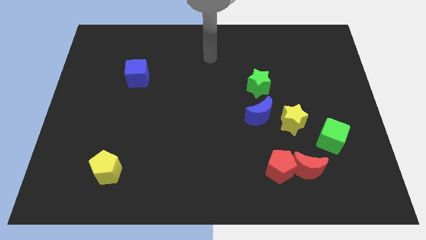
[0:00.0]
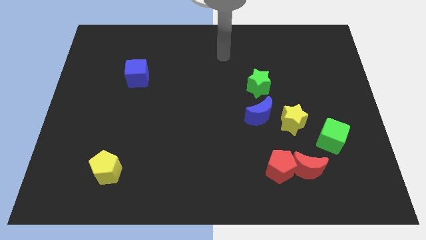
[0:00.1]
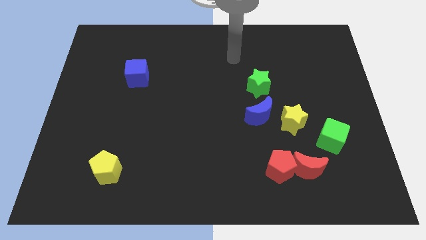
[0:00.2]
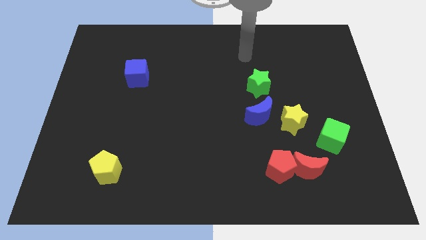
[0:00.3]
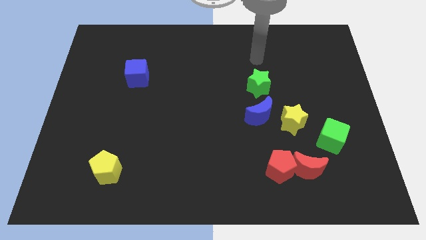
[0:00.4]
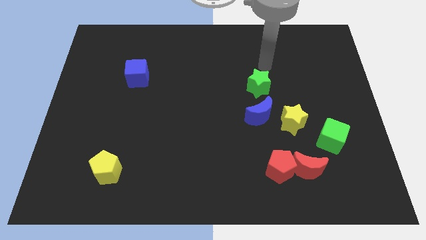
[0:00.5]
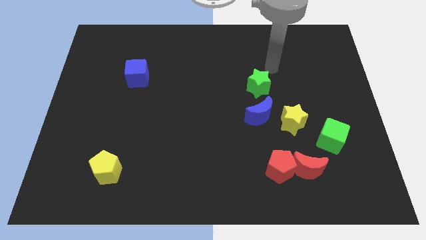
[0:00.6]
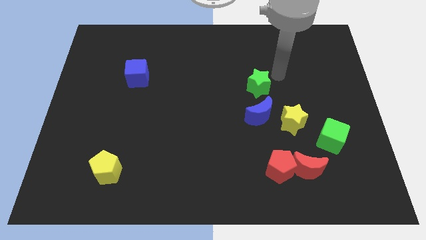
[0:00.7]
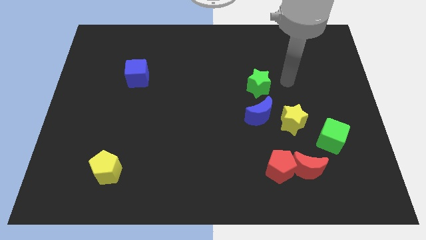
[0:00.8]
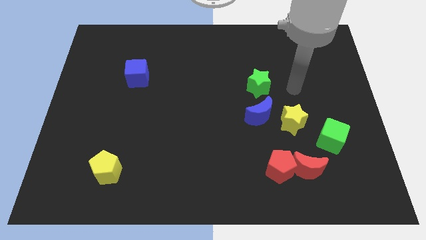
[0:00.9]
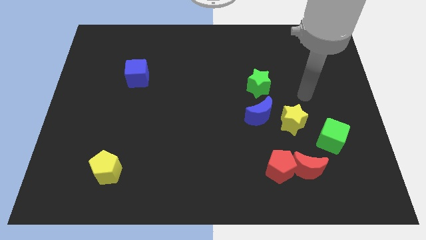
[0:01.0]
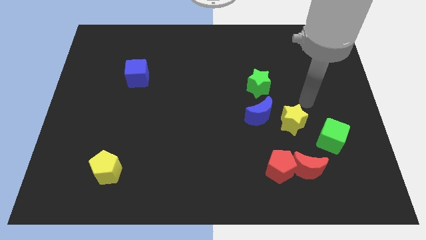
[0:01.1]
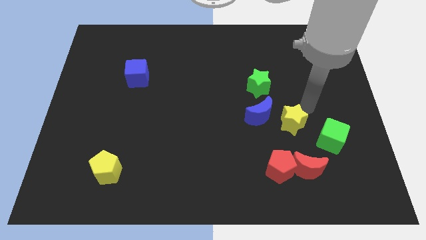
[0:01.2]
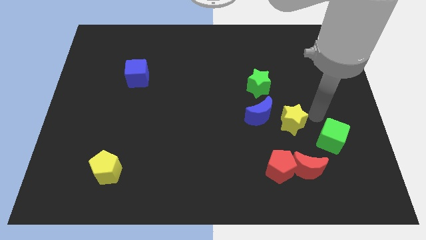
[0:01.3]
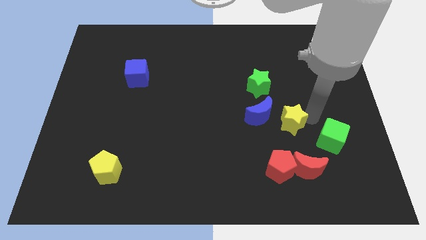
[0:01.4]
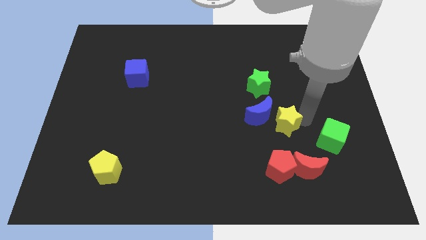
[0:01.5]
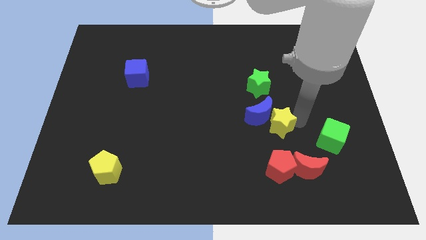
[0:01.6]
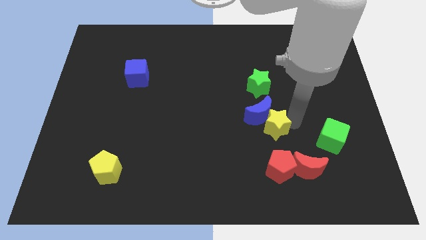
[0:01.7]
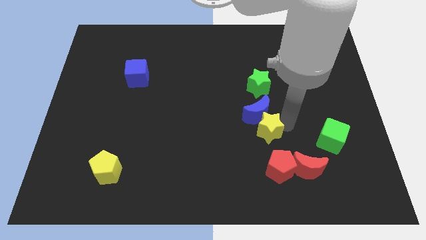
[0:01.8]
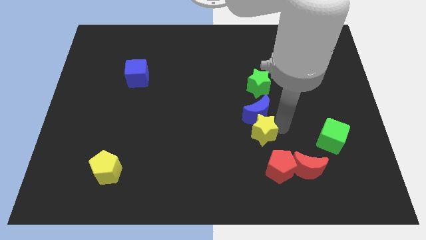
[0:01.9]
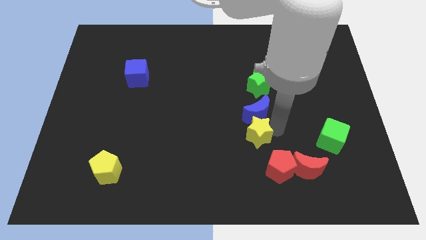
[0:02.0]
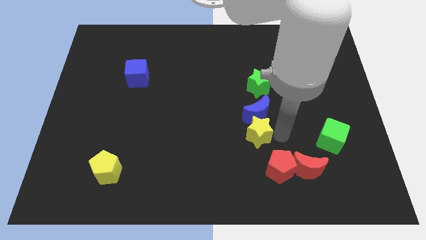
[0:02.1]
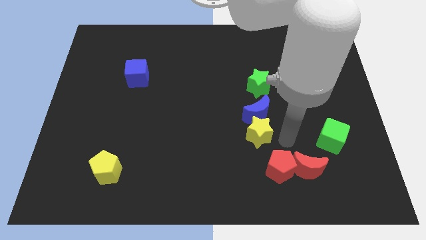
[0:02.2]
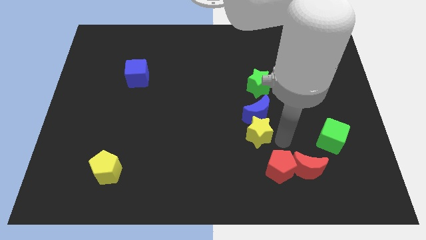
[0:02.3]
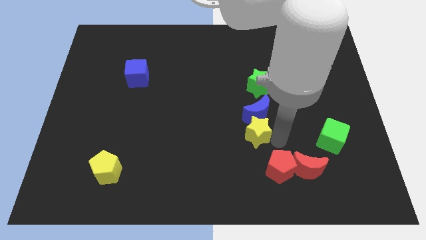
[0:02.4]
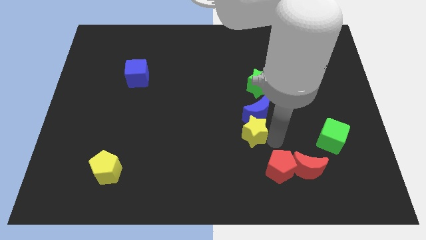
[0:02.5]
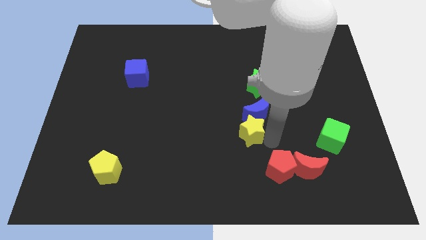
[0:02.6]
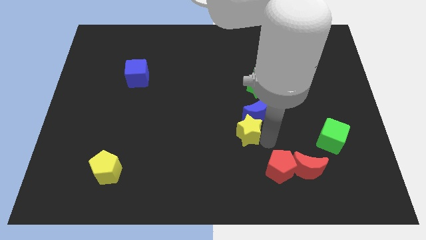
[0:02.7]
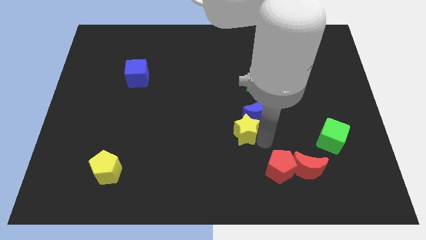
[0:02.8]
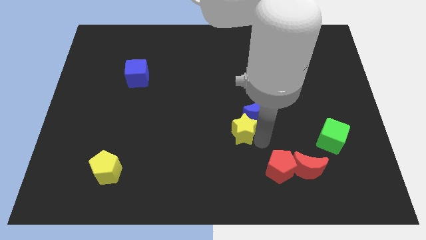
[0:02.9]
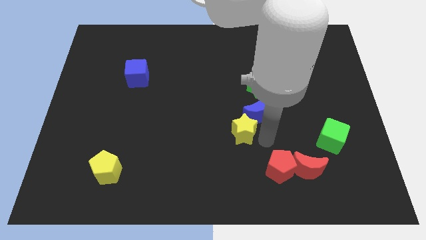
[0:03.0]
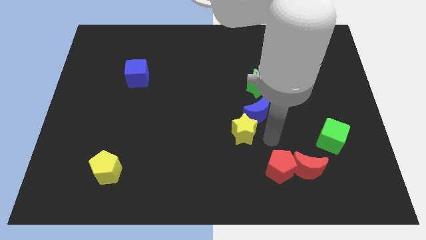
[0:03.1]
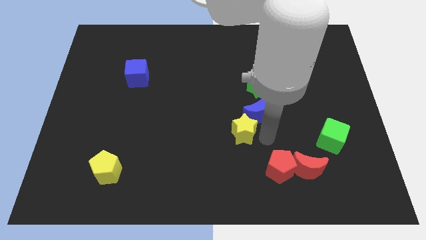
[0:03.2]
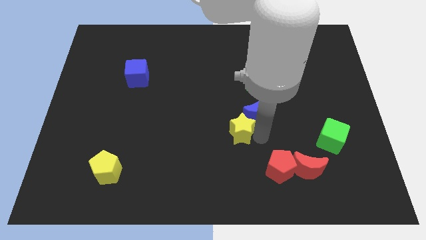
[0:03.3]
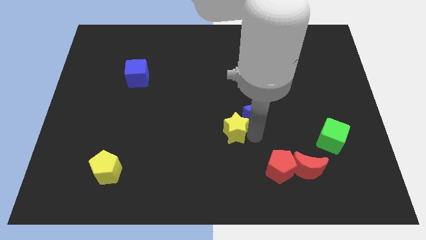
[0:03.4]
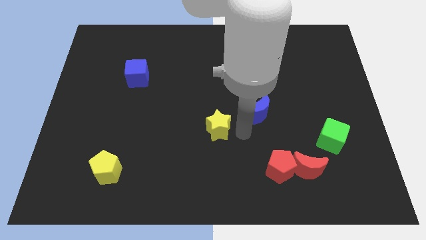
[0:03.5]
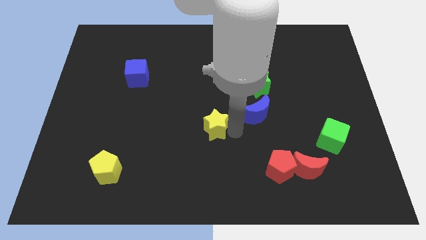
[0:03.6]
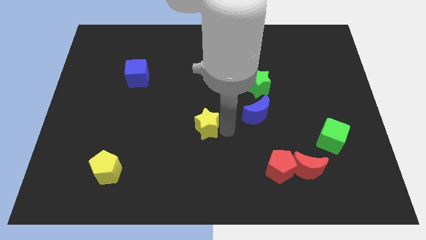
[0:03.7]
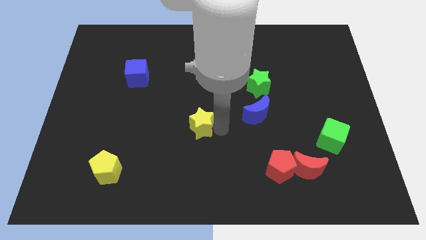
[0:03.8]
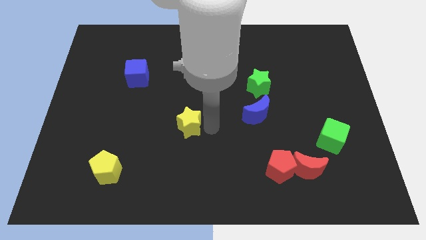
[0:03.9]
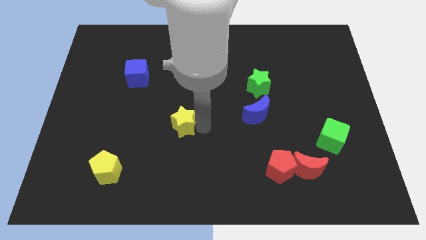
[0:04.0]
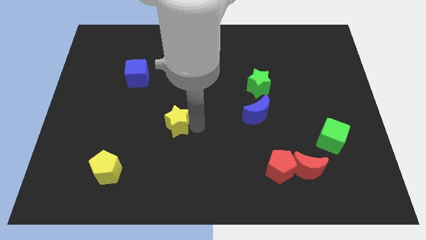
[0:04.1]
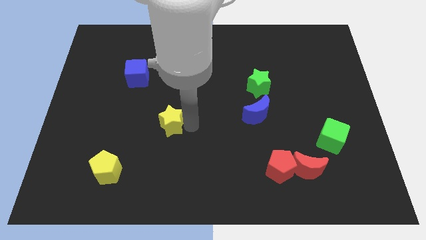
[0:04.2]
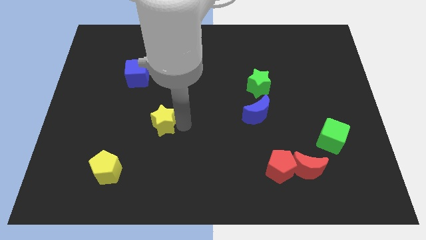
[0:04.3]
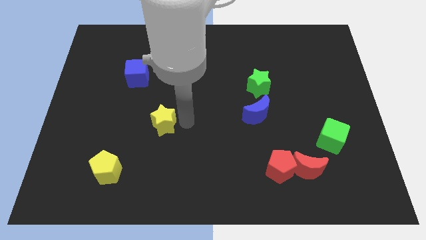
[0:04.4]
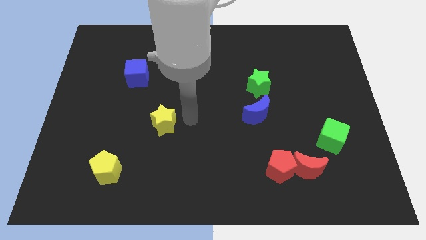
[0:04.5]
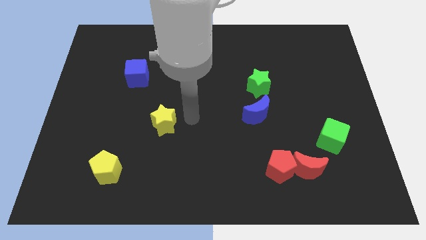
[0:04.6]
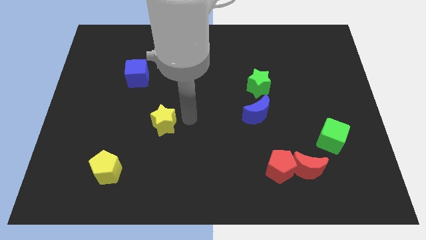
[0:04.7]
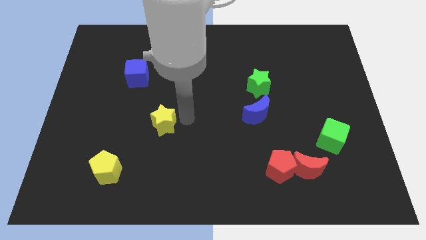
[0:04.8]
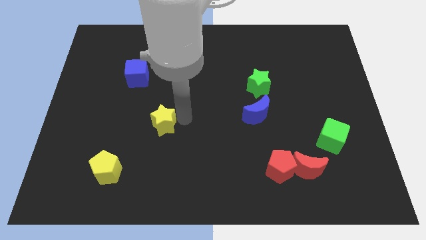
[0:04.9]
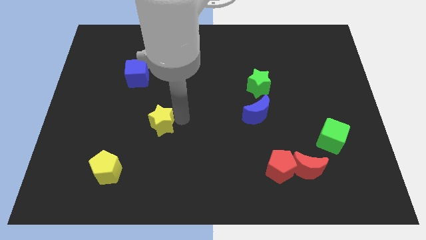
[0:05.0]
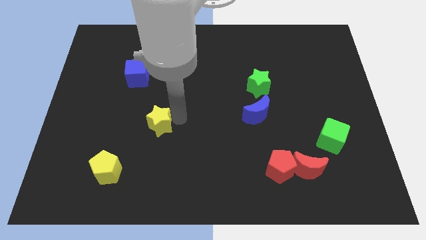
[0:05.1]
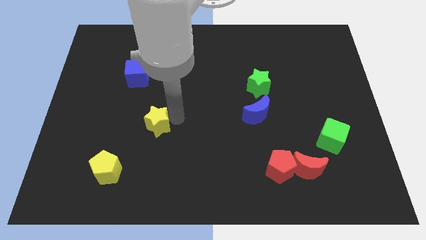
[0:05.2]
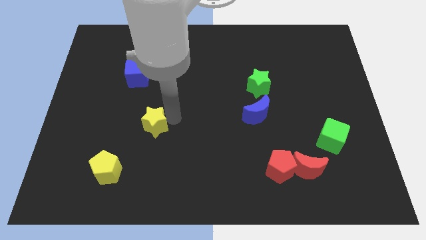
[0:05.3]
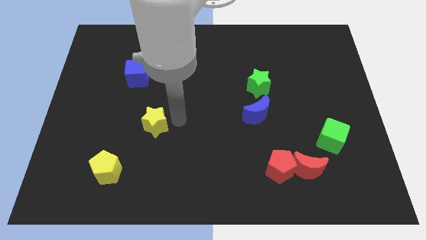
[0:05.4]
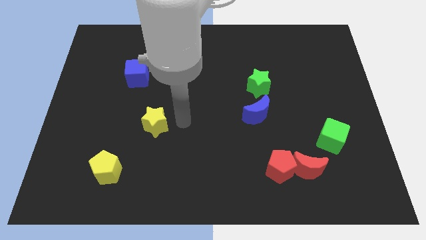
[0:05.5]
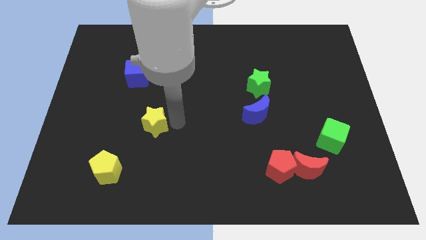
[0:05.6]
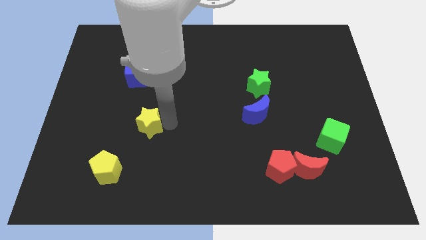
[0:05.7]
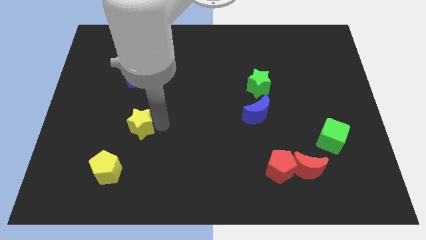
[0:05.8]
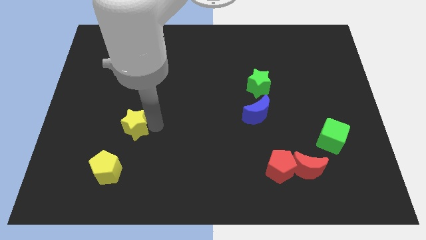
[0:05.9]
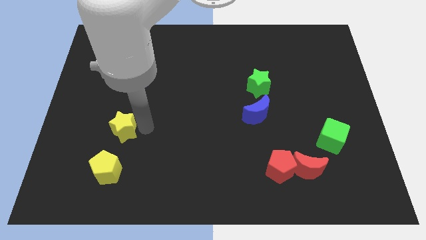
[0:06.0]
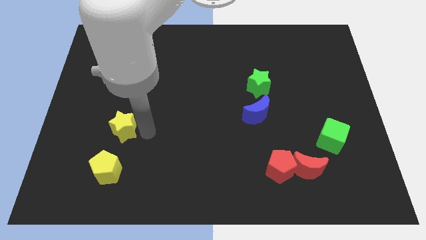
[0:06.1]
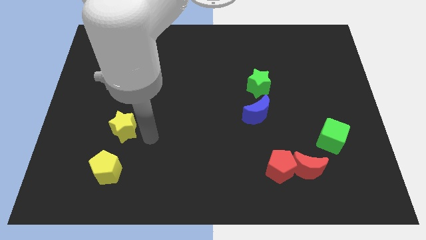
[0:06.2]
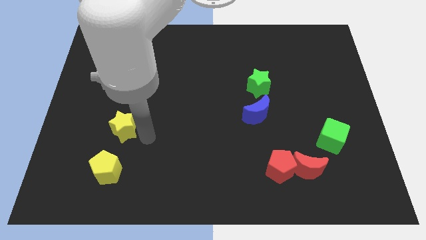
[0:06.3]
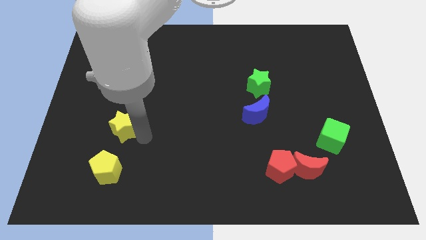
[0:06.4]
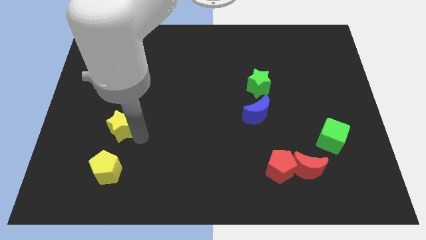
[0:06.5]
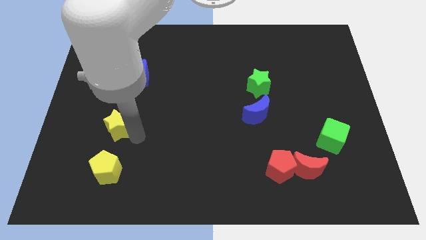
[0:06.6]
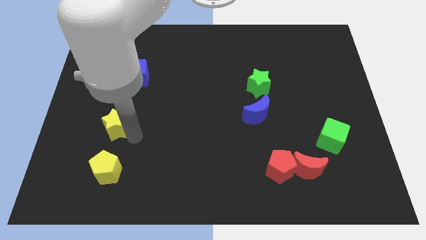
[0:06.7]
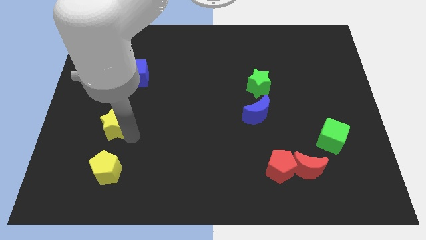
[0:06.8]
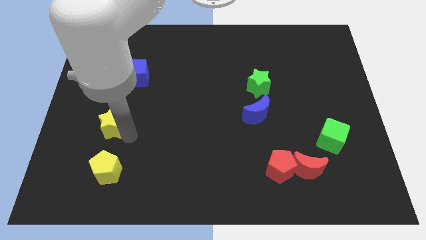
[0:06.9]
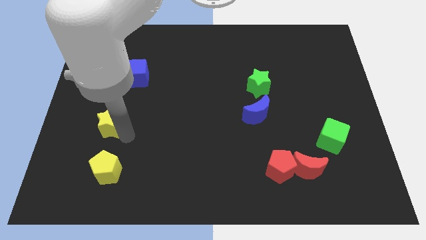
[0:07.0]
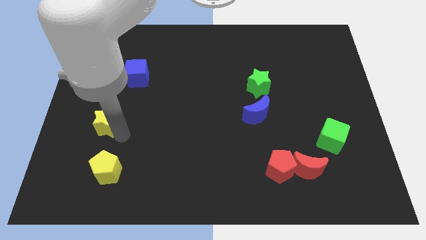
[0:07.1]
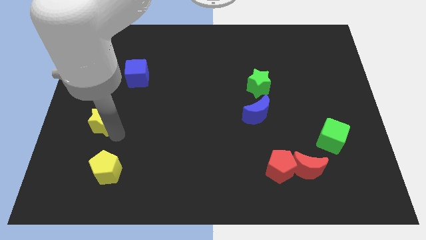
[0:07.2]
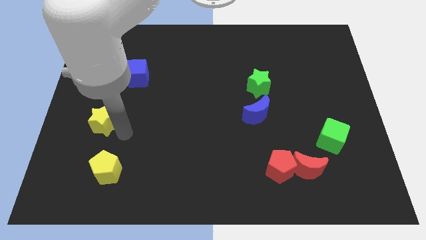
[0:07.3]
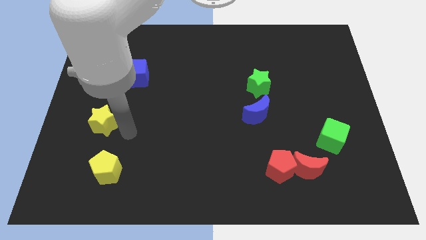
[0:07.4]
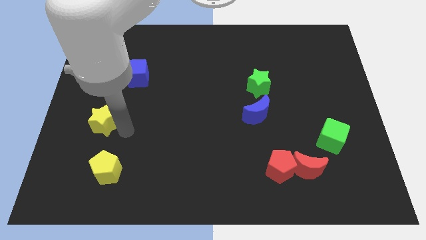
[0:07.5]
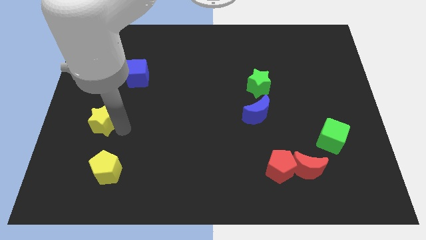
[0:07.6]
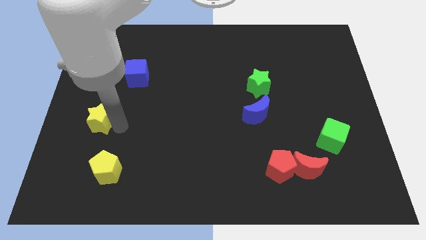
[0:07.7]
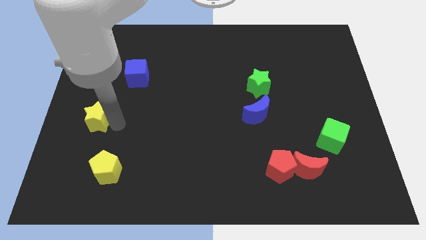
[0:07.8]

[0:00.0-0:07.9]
slide the yellow star to the center left
